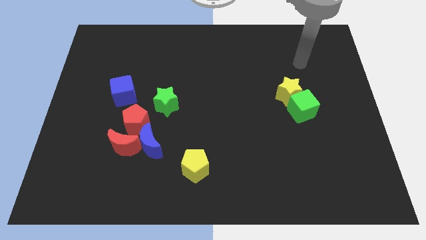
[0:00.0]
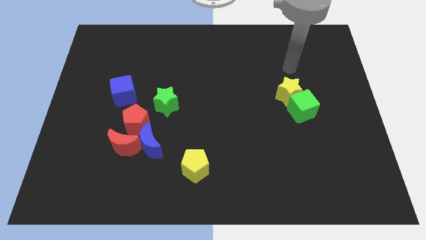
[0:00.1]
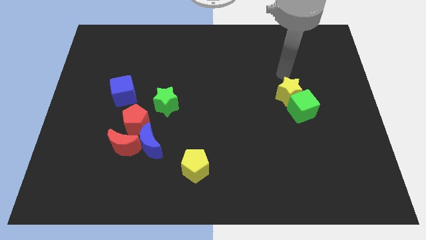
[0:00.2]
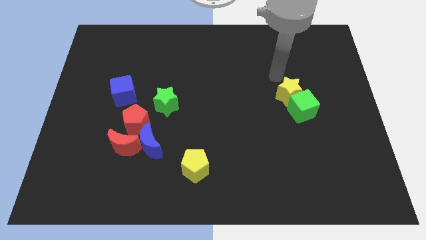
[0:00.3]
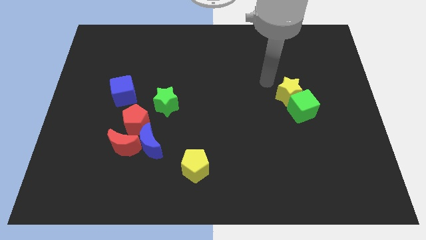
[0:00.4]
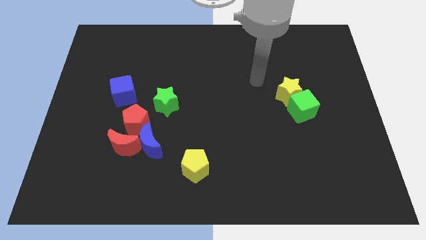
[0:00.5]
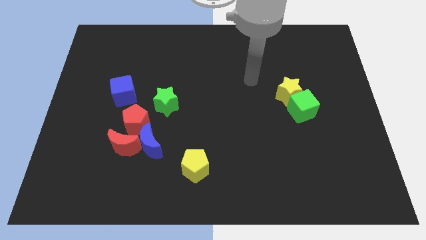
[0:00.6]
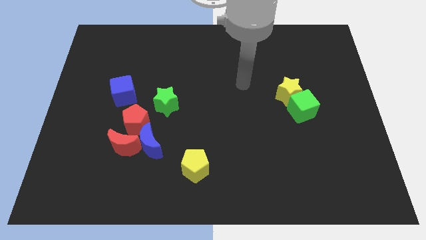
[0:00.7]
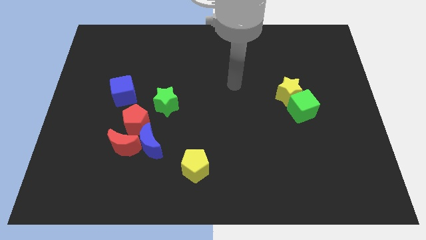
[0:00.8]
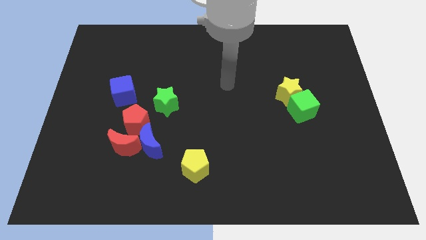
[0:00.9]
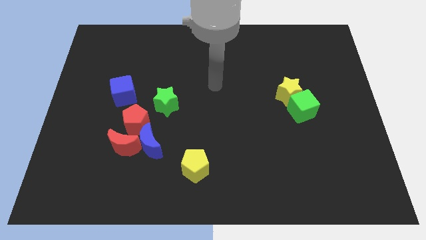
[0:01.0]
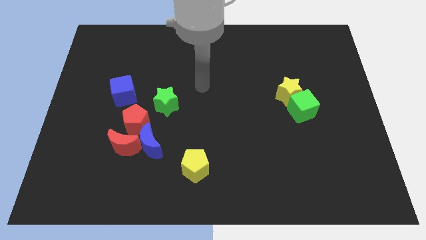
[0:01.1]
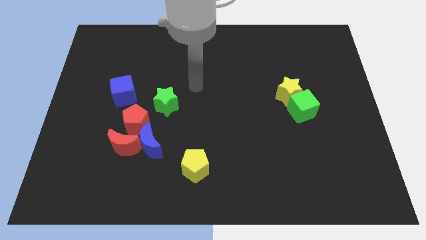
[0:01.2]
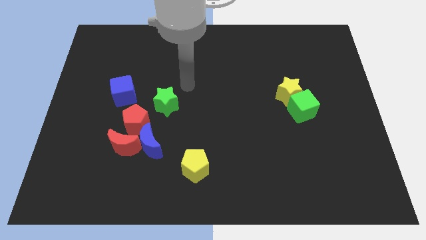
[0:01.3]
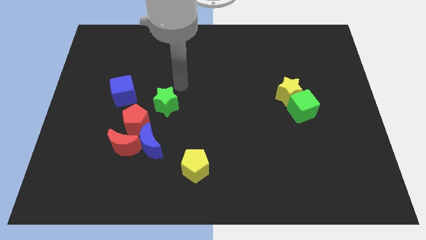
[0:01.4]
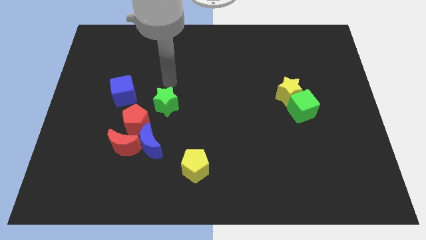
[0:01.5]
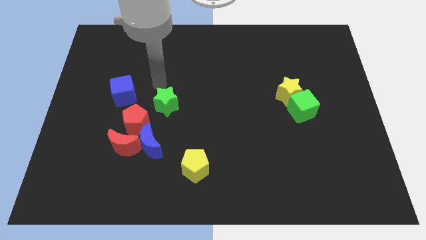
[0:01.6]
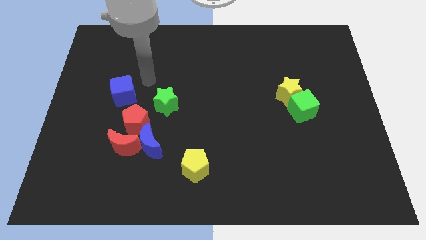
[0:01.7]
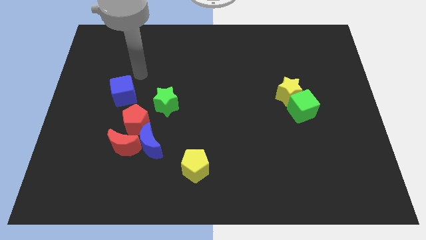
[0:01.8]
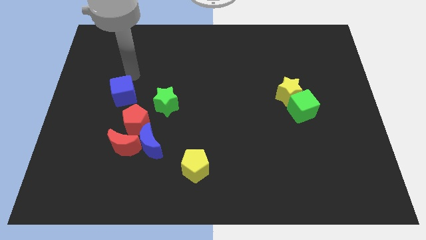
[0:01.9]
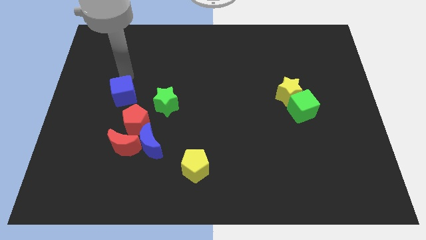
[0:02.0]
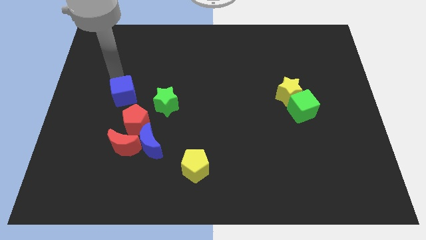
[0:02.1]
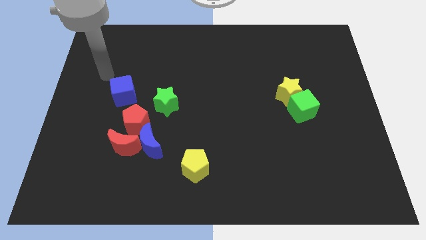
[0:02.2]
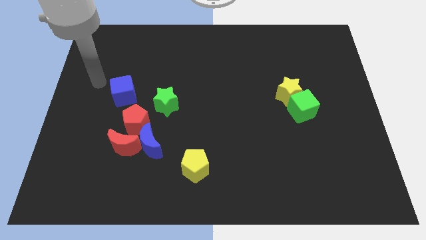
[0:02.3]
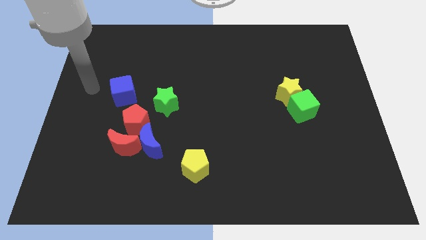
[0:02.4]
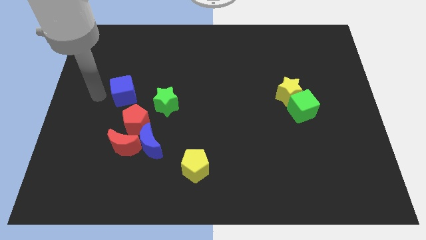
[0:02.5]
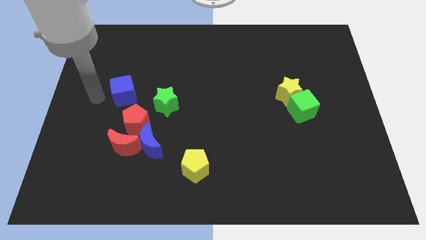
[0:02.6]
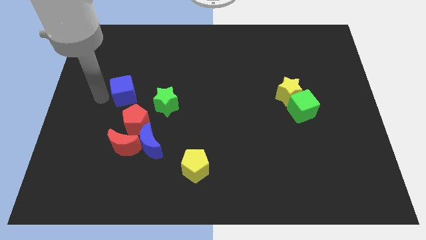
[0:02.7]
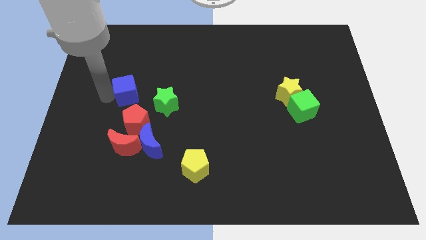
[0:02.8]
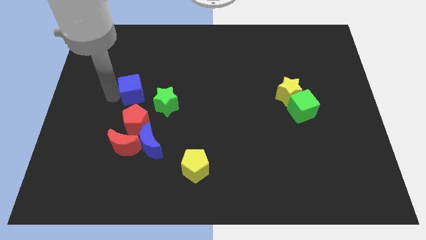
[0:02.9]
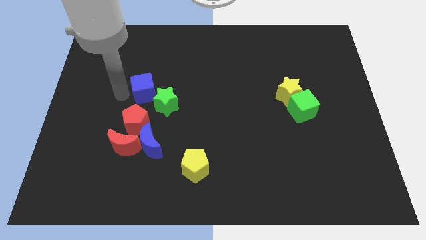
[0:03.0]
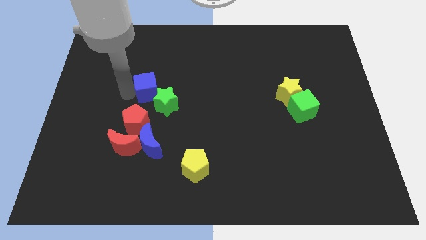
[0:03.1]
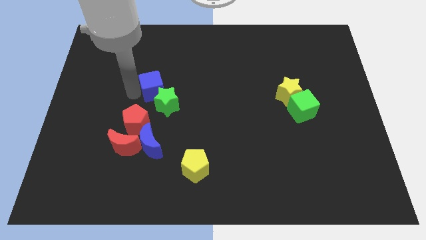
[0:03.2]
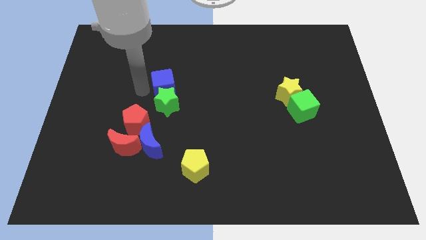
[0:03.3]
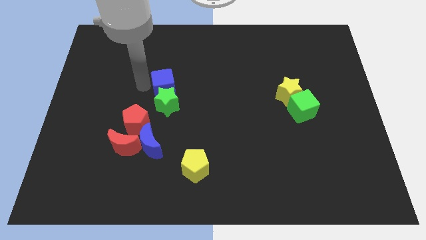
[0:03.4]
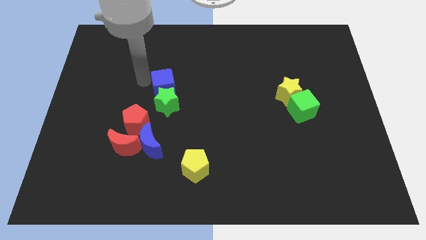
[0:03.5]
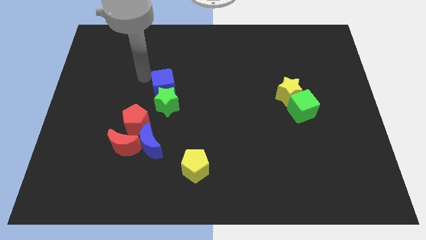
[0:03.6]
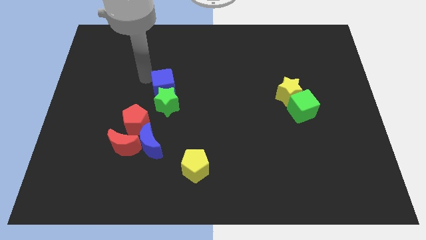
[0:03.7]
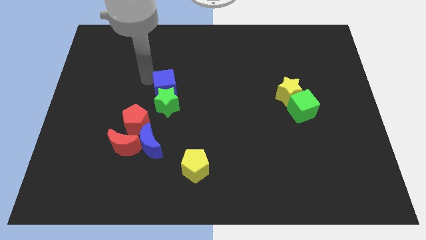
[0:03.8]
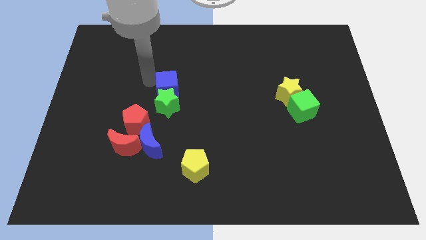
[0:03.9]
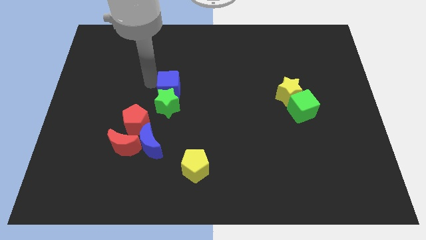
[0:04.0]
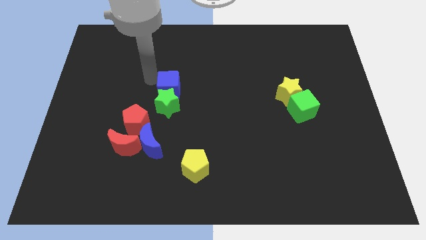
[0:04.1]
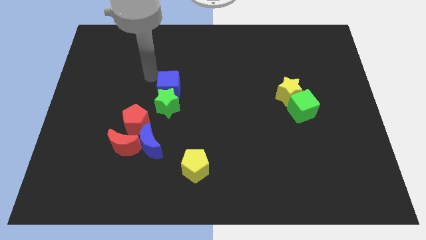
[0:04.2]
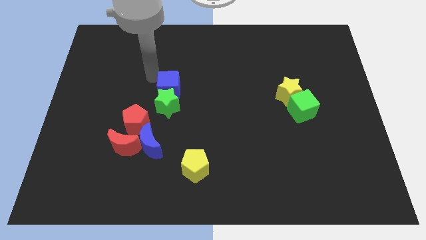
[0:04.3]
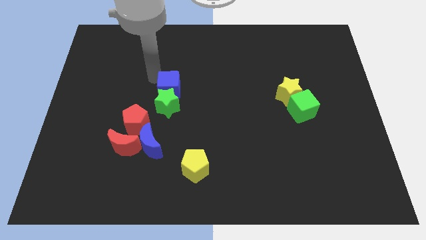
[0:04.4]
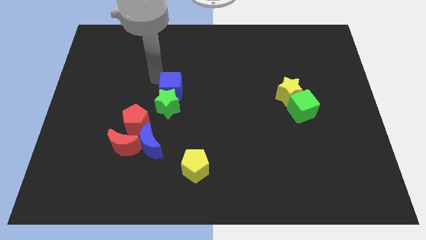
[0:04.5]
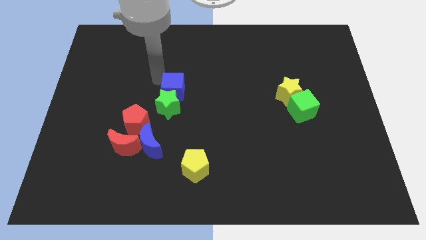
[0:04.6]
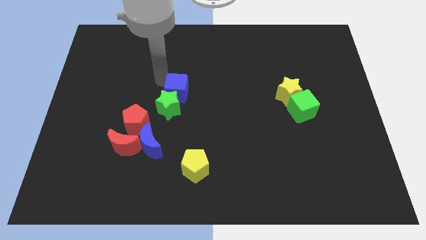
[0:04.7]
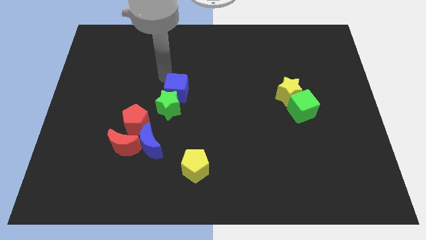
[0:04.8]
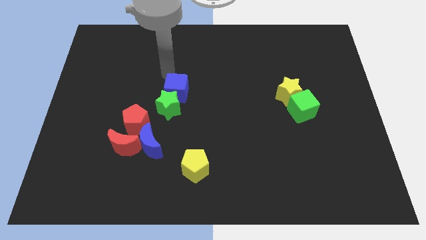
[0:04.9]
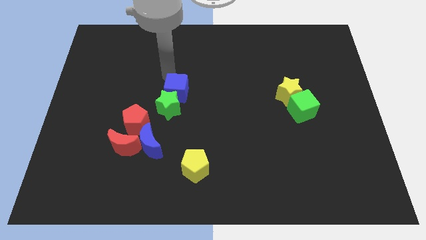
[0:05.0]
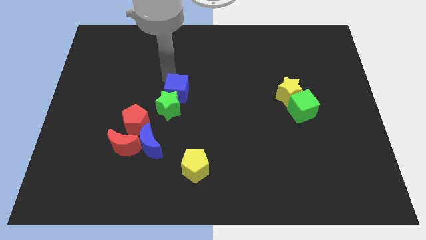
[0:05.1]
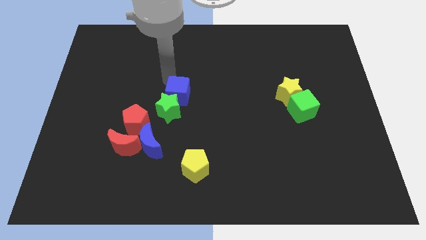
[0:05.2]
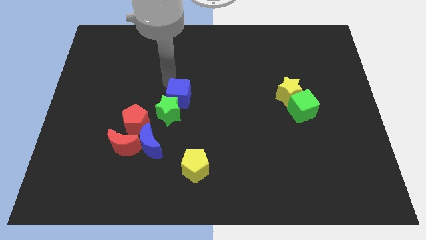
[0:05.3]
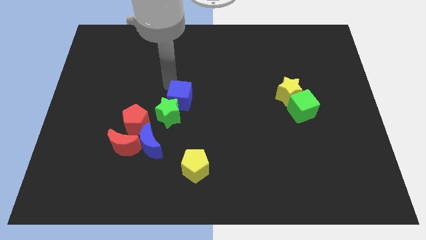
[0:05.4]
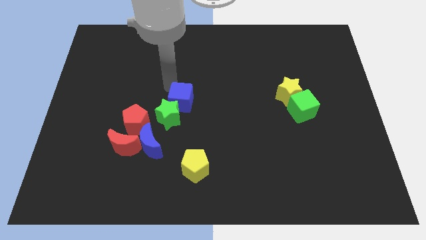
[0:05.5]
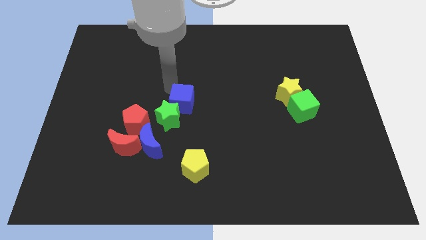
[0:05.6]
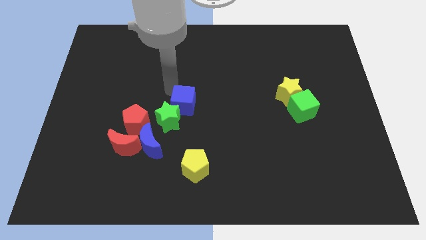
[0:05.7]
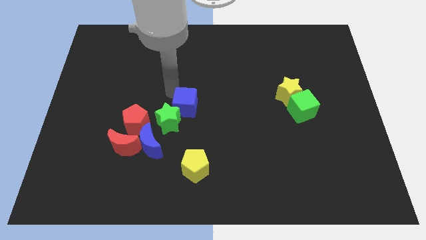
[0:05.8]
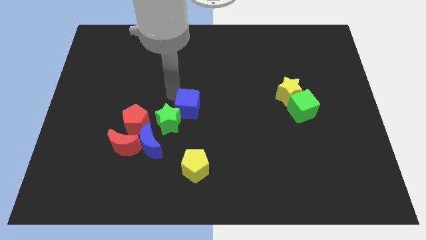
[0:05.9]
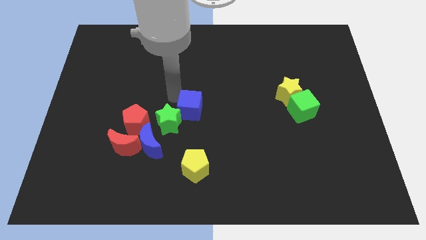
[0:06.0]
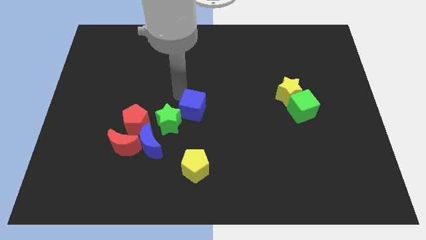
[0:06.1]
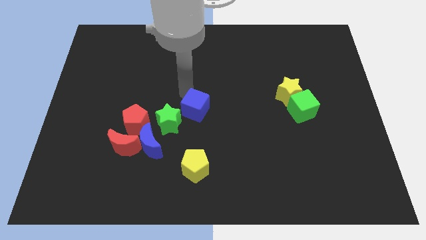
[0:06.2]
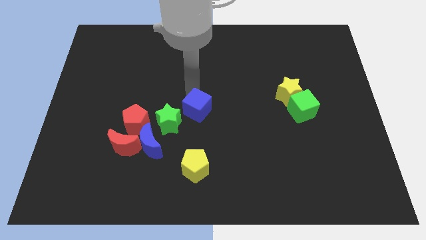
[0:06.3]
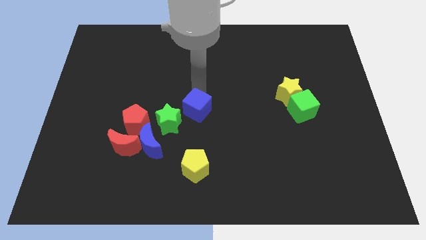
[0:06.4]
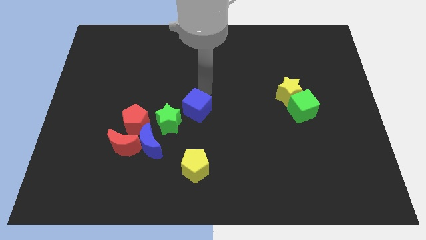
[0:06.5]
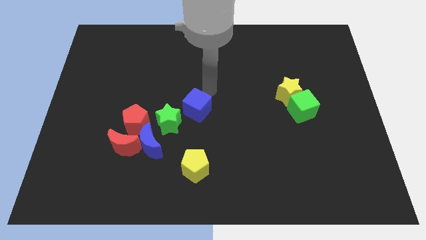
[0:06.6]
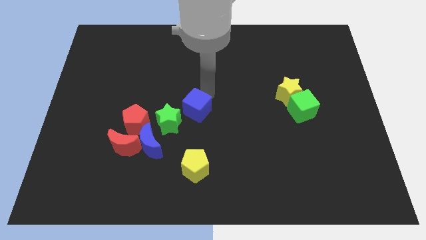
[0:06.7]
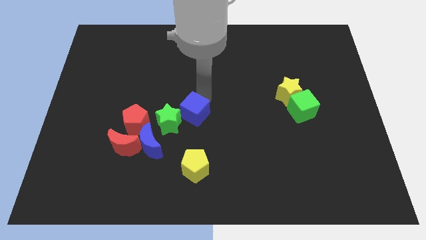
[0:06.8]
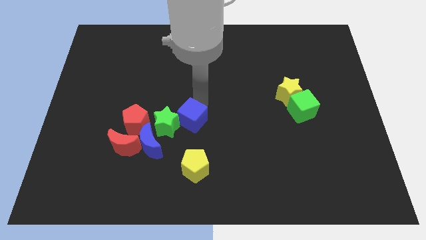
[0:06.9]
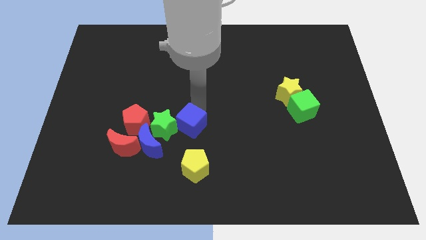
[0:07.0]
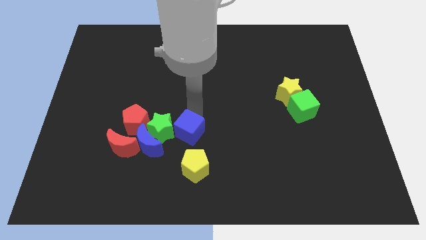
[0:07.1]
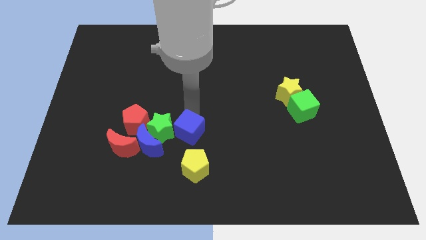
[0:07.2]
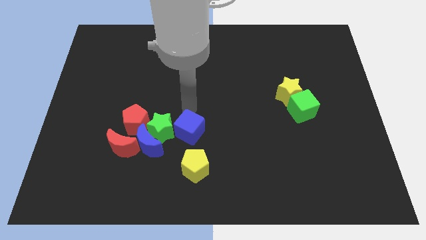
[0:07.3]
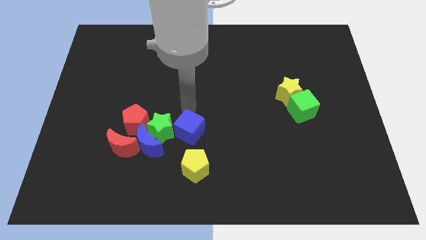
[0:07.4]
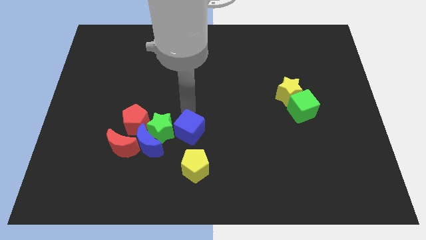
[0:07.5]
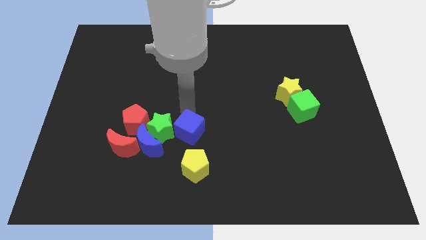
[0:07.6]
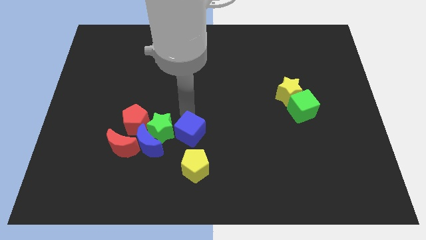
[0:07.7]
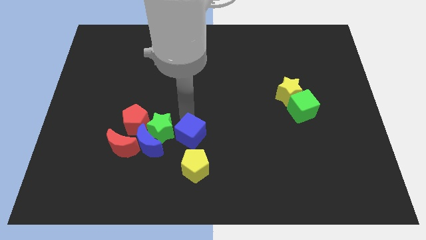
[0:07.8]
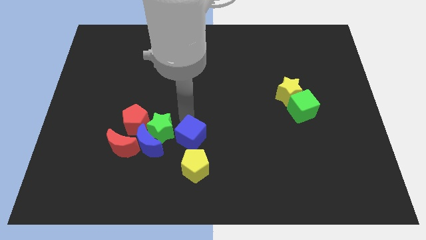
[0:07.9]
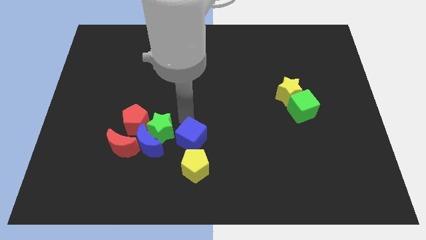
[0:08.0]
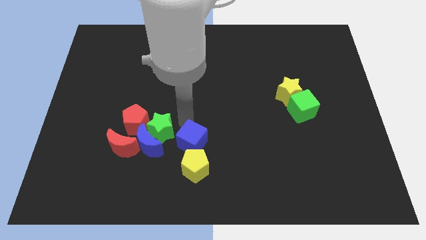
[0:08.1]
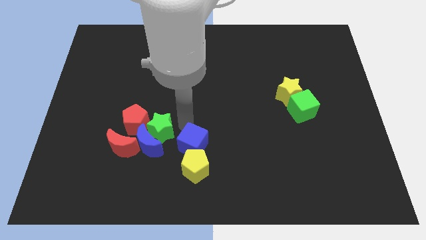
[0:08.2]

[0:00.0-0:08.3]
slide the blue cube next to the yellow pentagon
